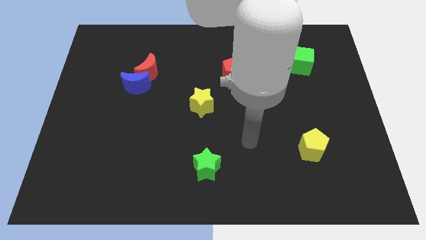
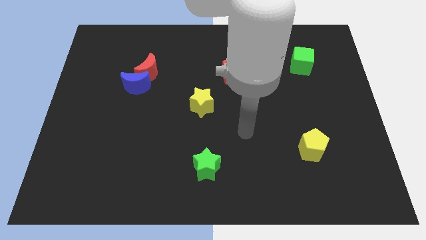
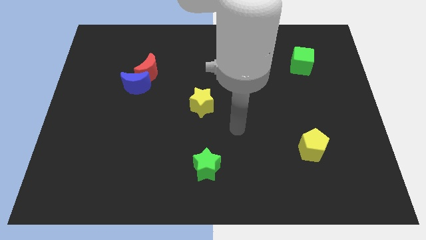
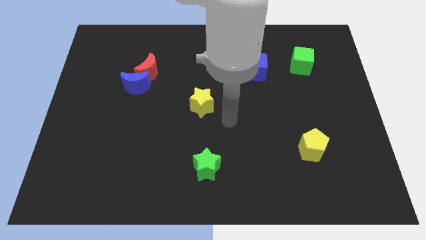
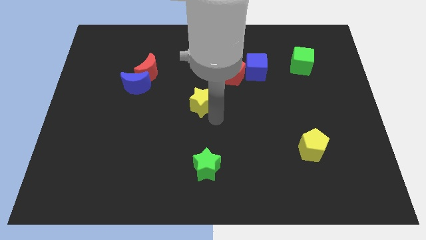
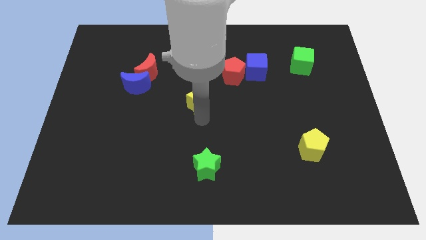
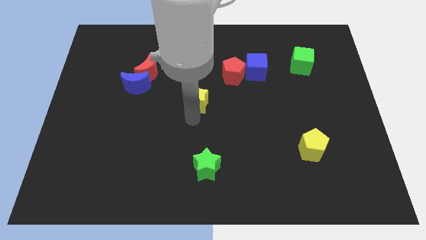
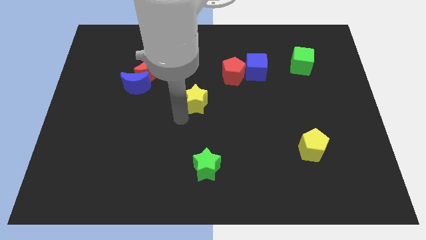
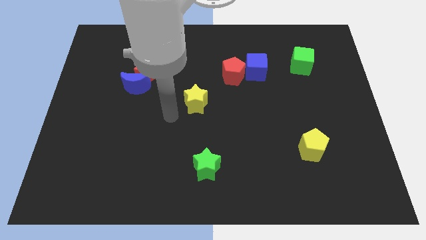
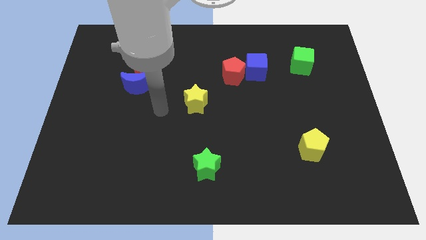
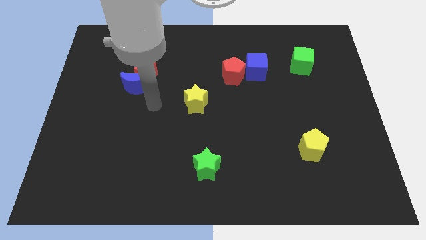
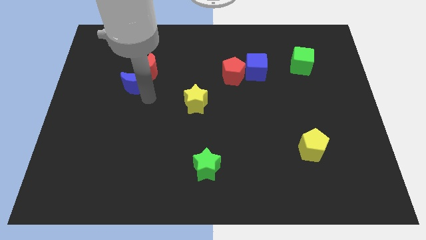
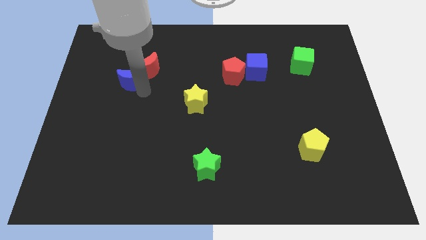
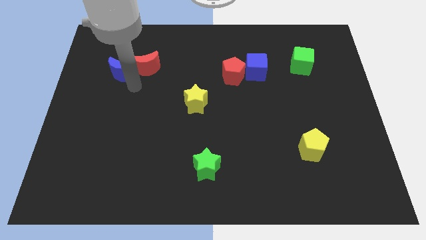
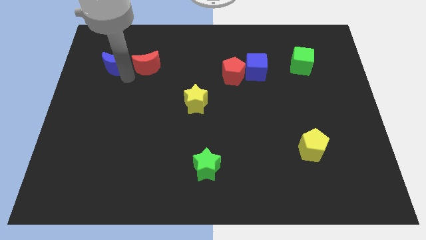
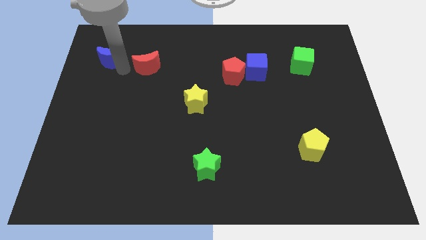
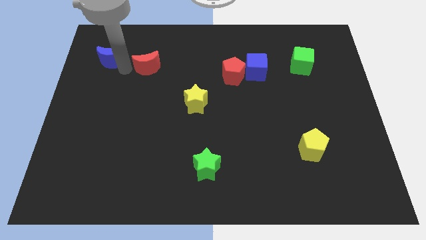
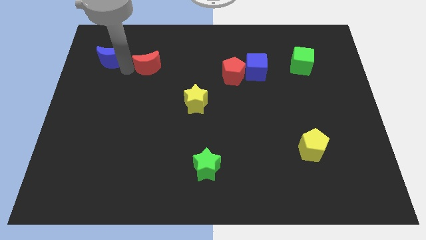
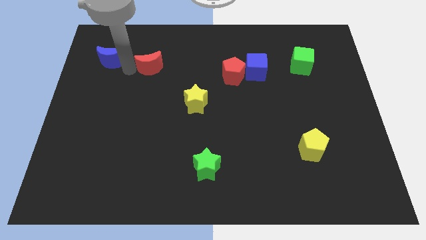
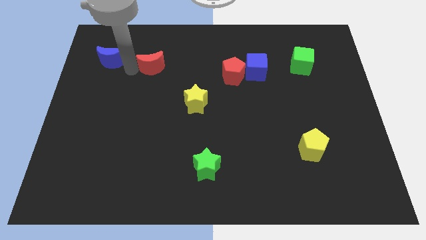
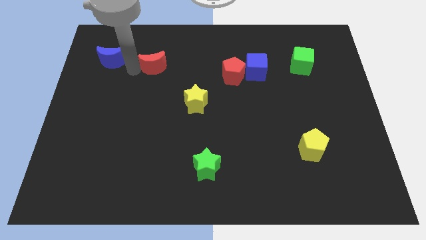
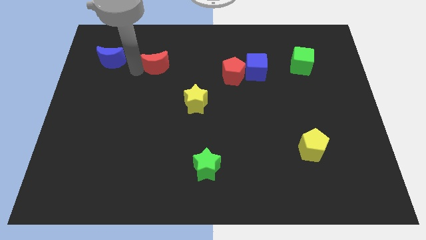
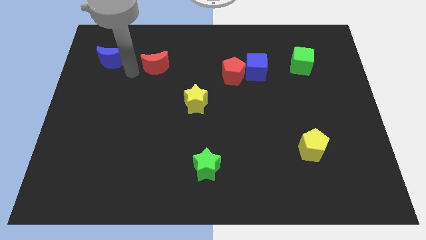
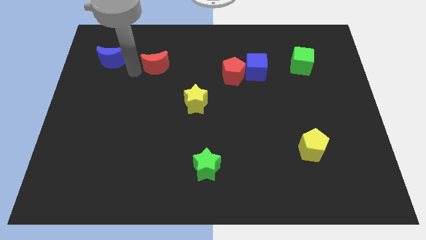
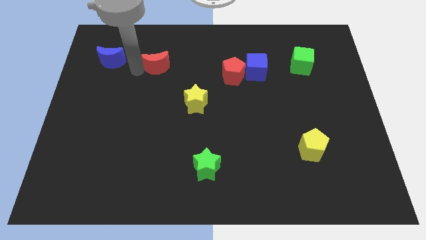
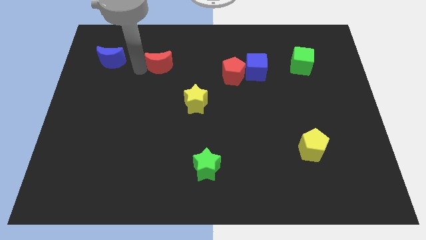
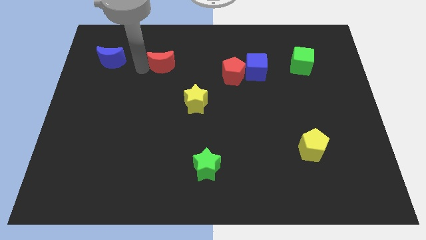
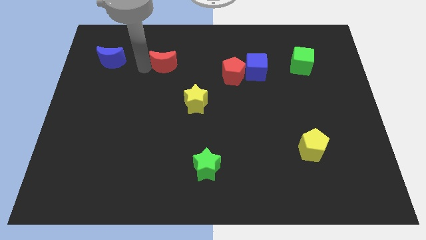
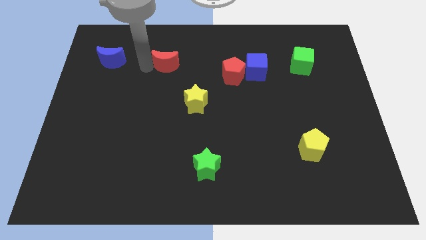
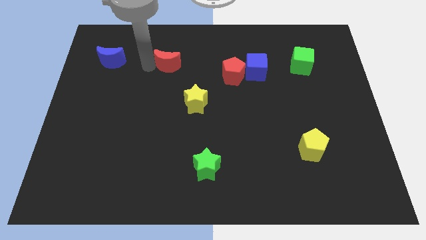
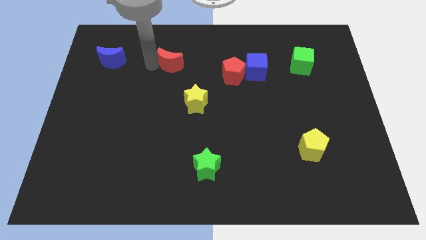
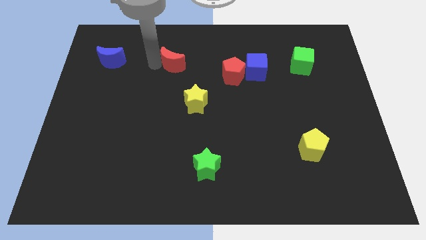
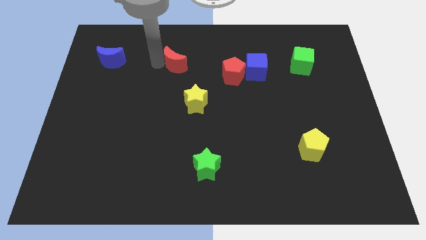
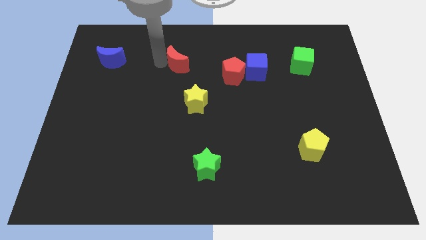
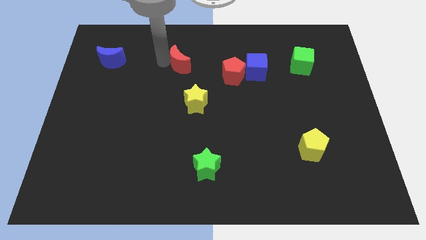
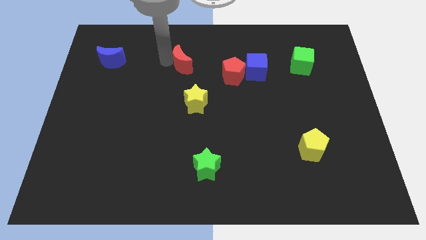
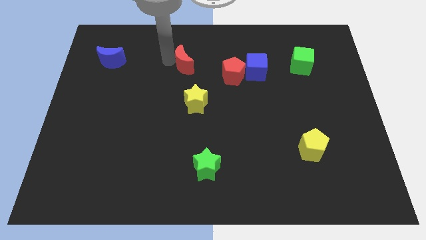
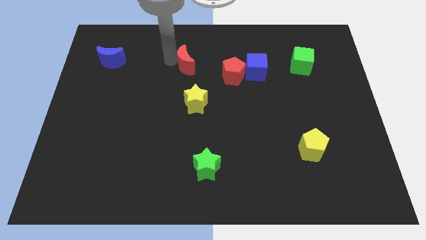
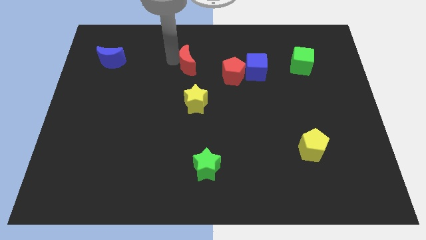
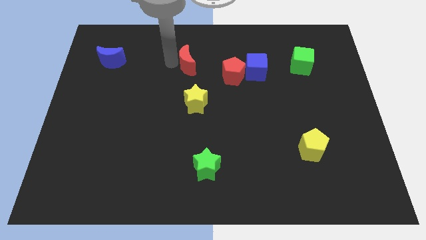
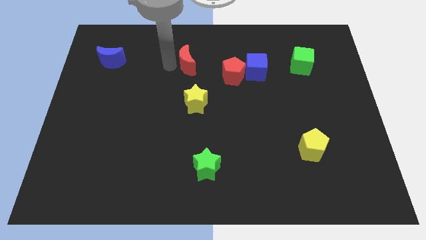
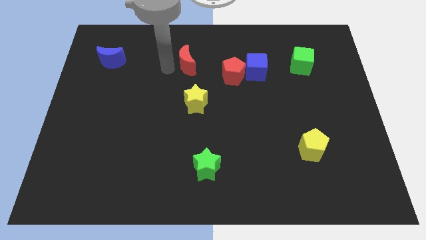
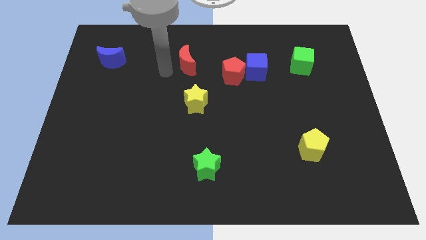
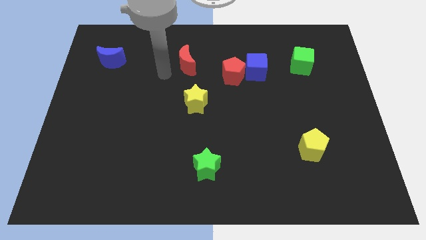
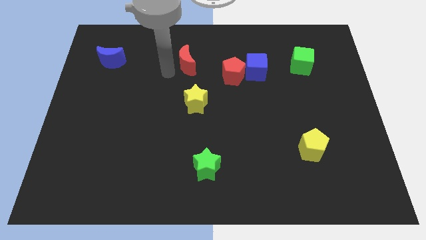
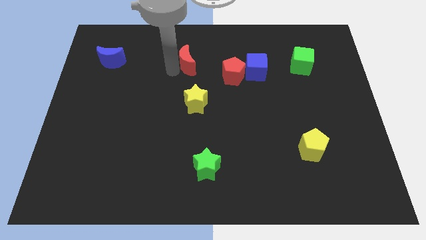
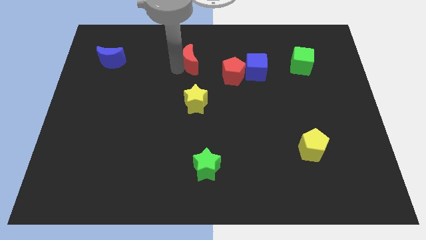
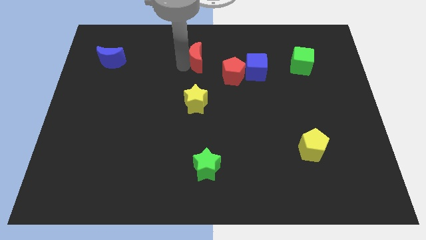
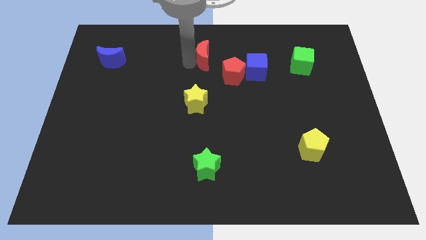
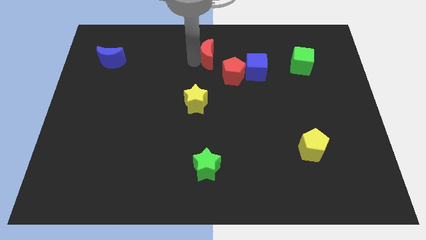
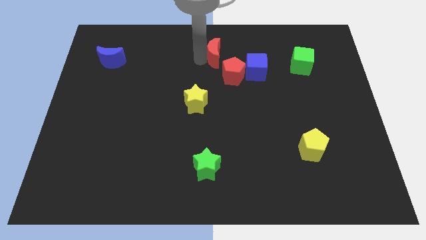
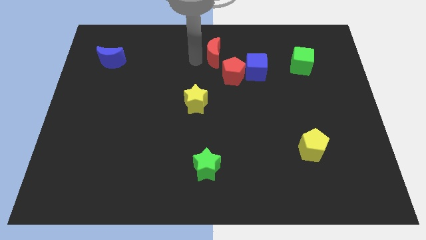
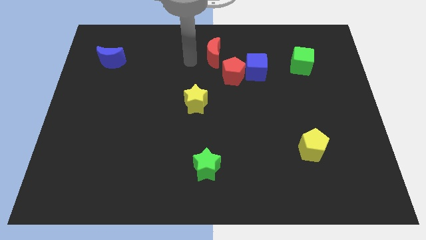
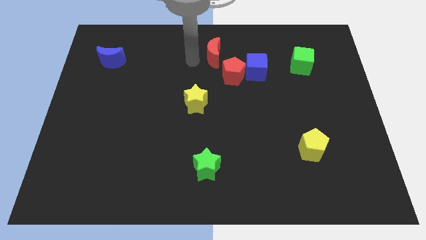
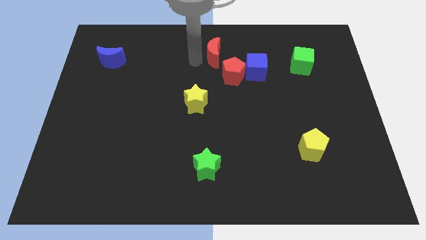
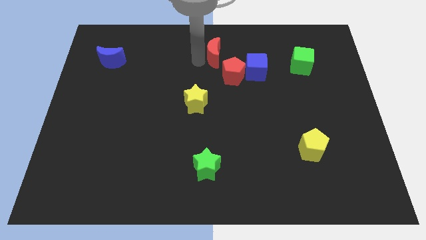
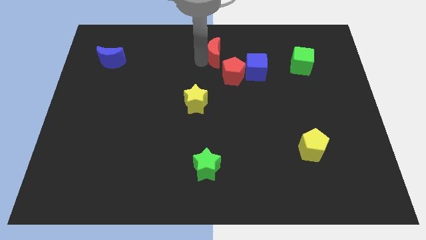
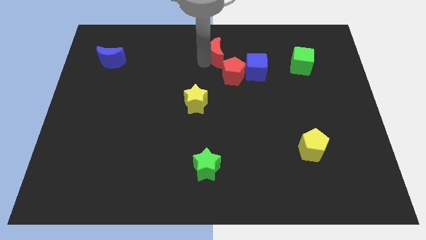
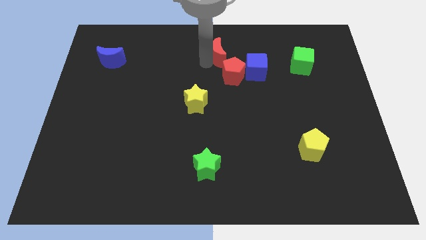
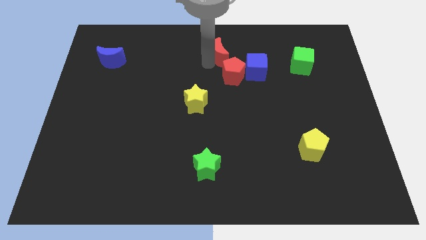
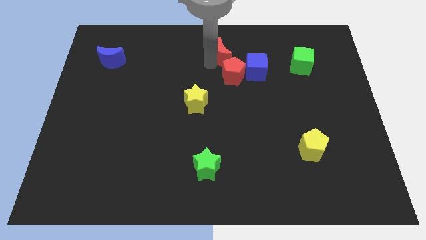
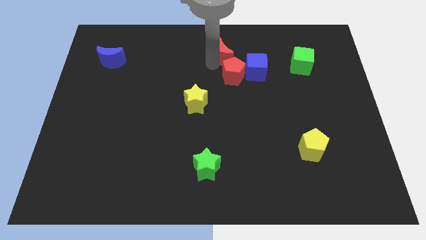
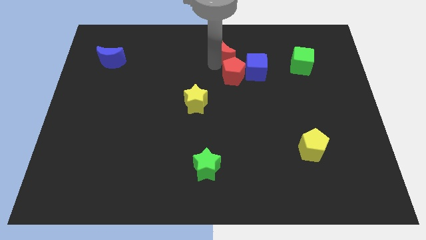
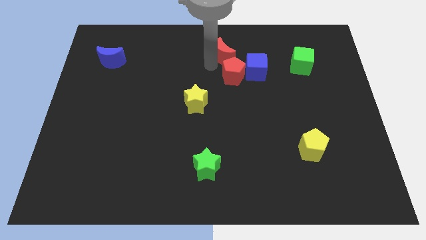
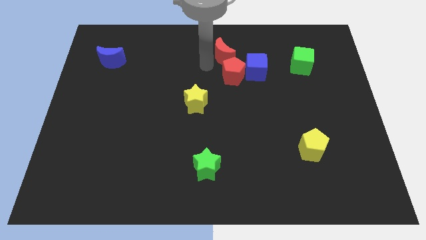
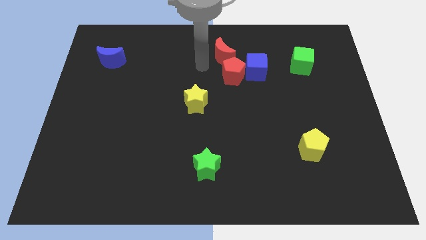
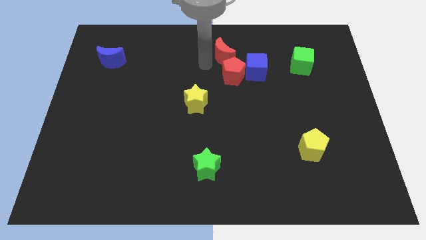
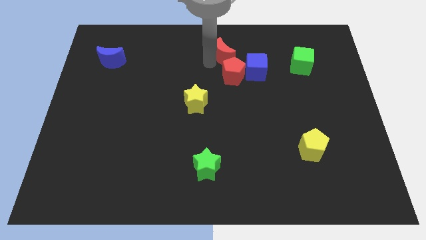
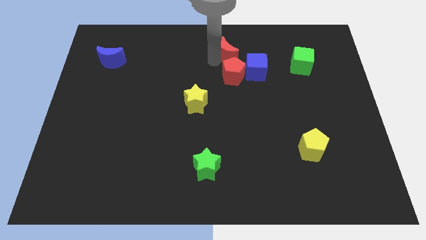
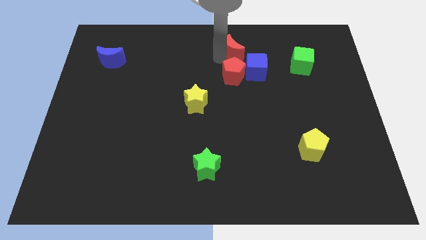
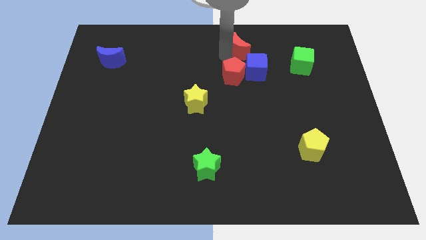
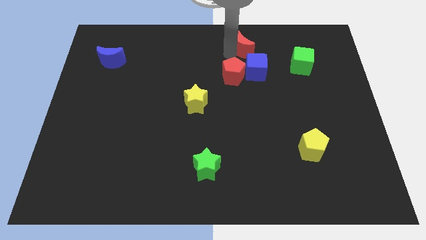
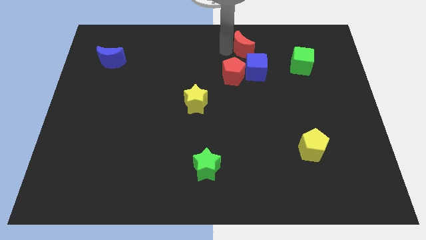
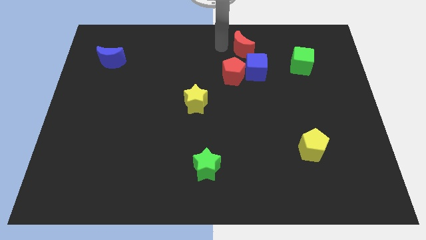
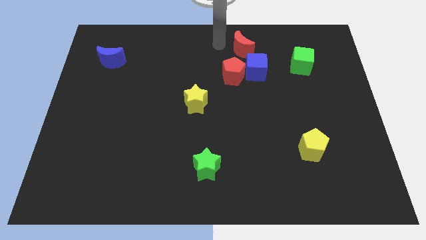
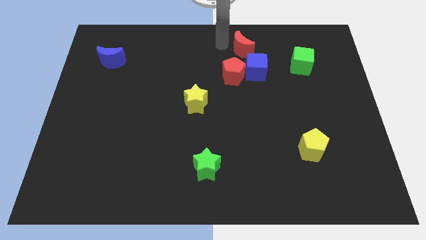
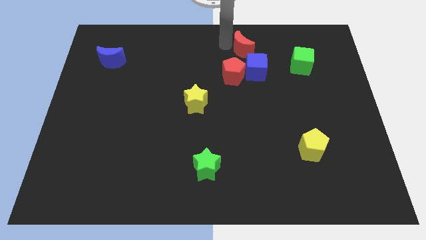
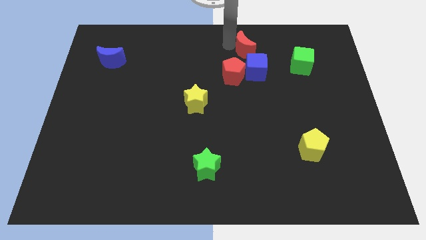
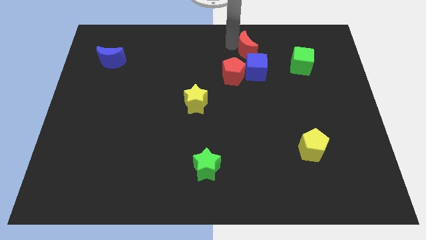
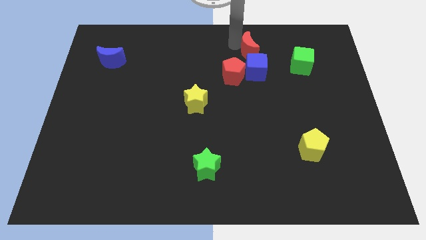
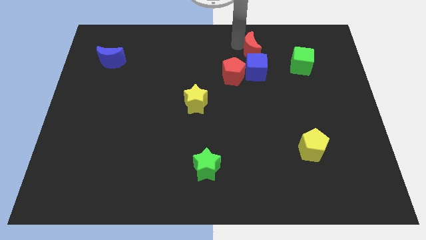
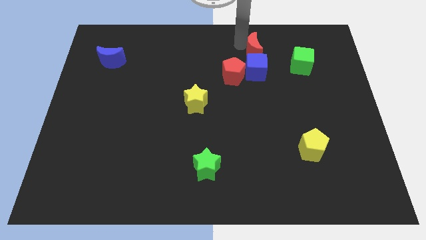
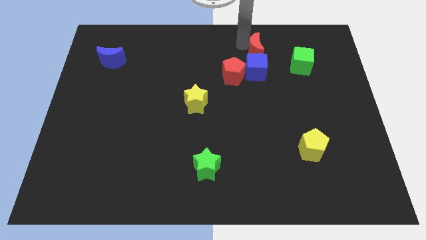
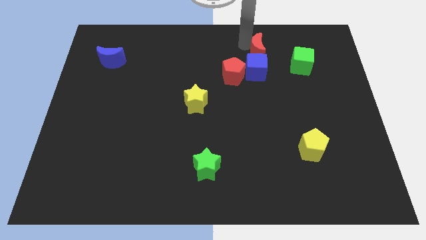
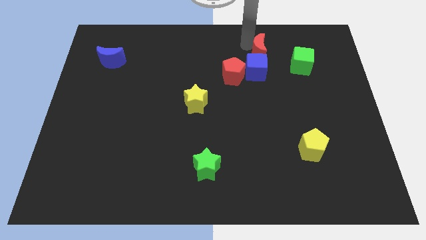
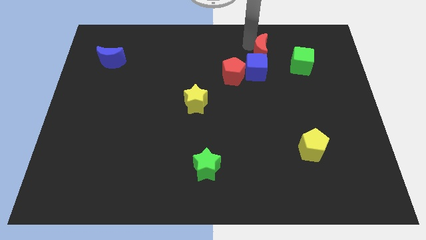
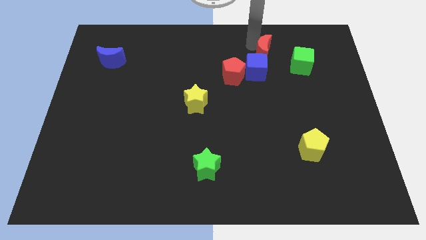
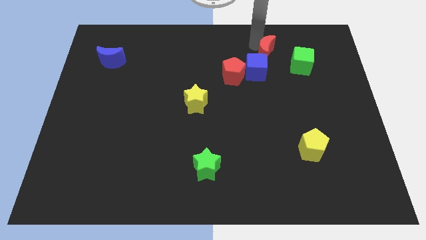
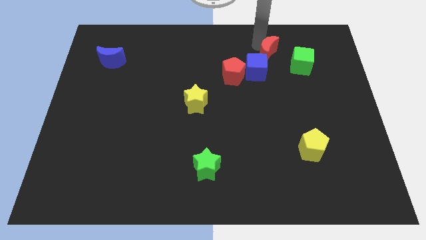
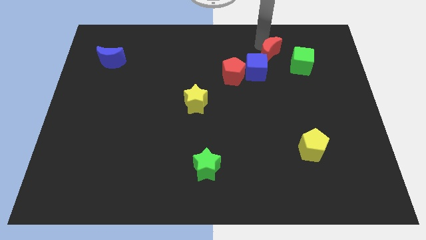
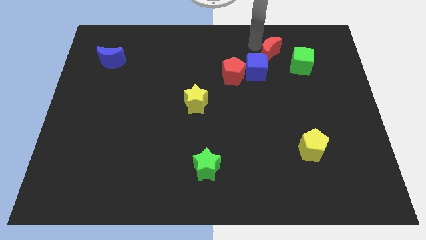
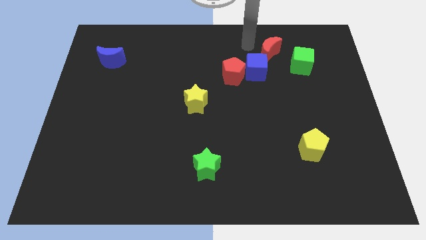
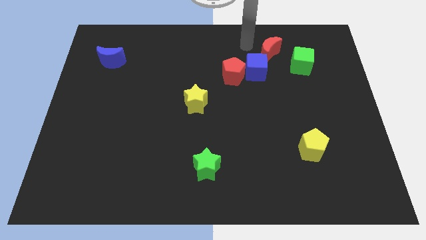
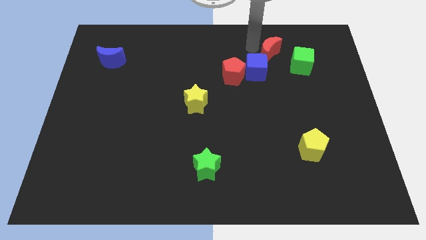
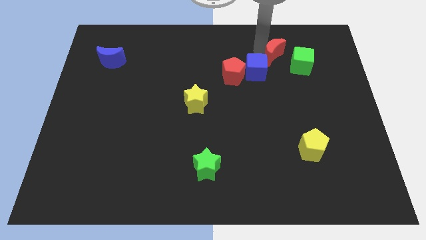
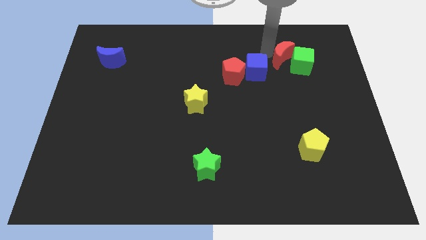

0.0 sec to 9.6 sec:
move the red moon next to the green cube
